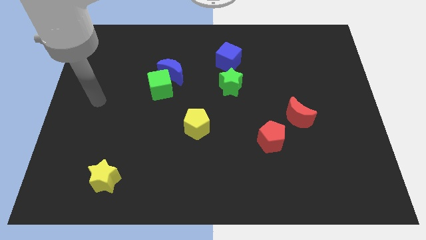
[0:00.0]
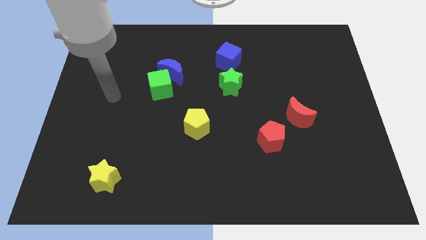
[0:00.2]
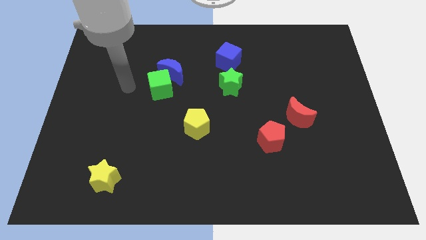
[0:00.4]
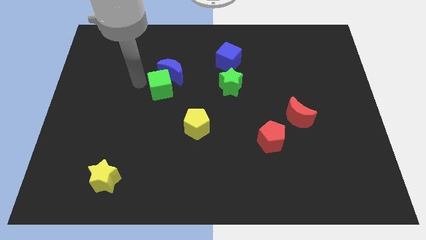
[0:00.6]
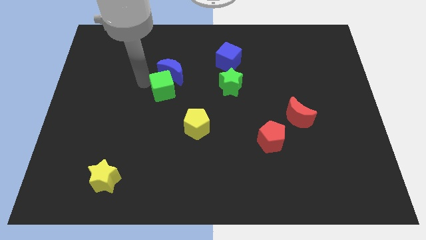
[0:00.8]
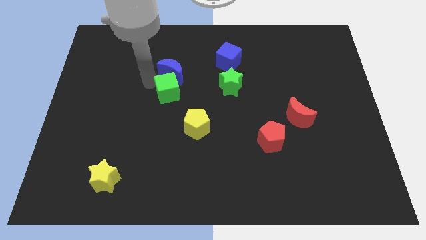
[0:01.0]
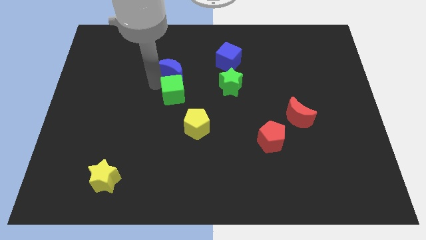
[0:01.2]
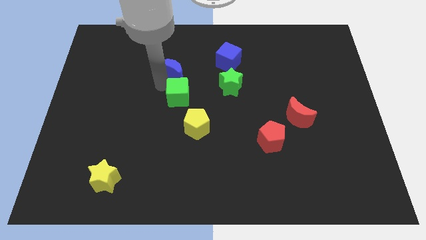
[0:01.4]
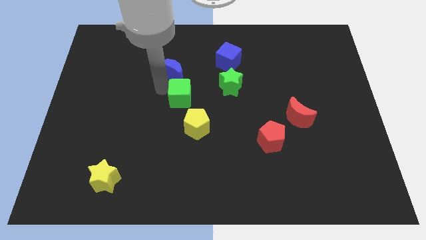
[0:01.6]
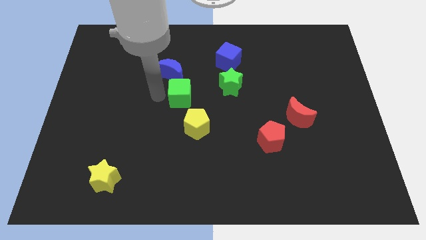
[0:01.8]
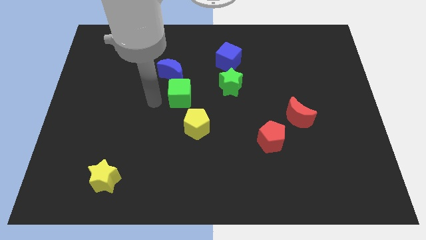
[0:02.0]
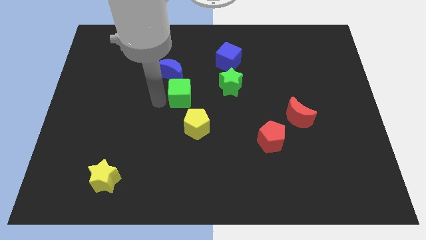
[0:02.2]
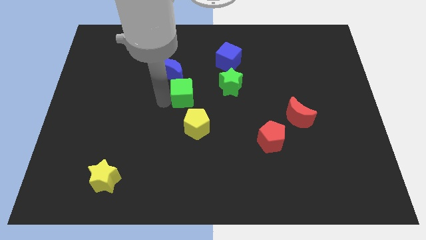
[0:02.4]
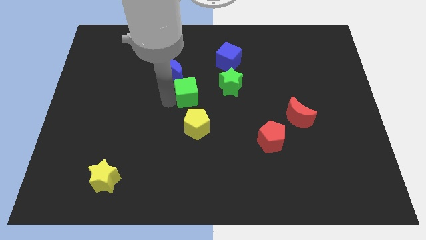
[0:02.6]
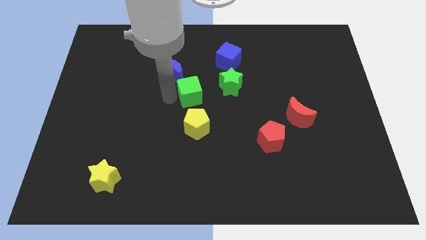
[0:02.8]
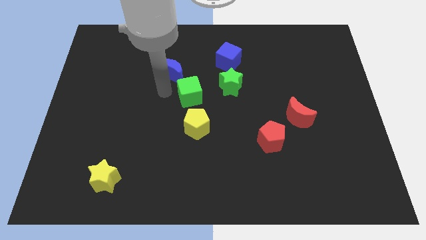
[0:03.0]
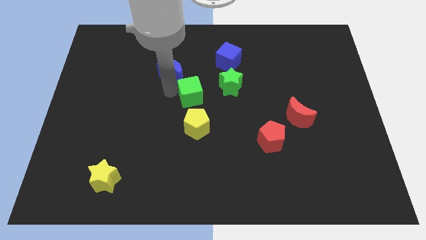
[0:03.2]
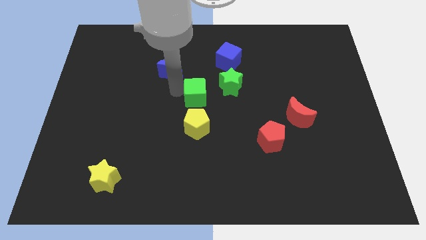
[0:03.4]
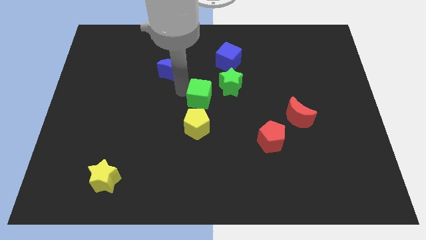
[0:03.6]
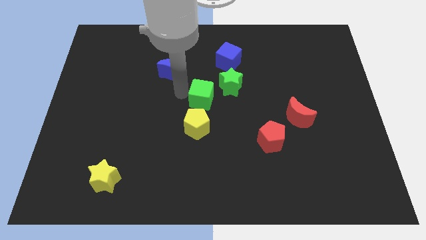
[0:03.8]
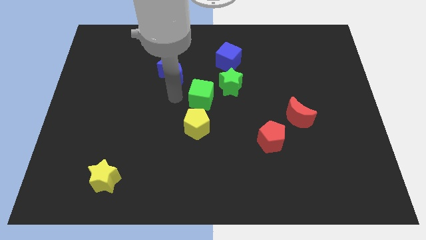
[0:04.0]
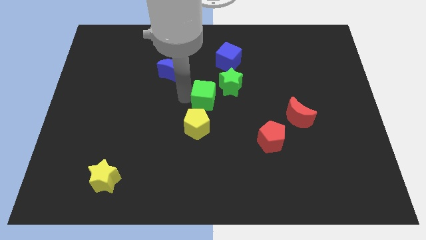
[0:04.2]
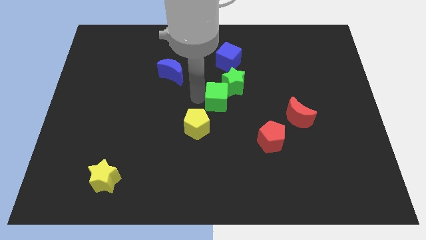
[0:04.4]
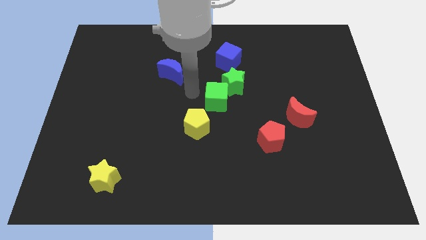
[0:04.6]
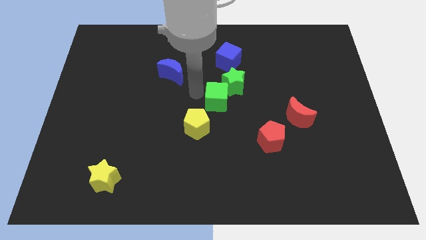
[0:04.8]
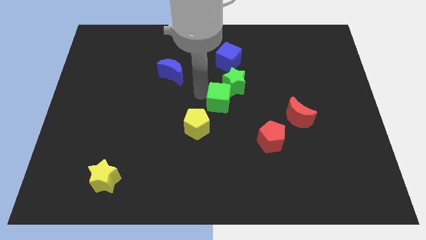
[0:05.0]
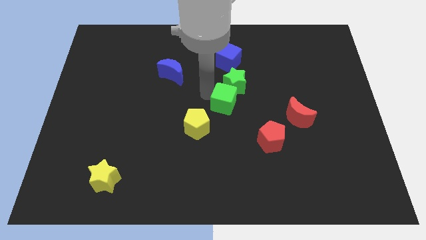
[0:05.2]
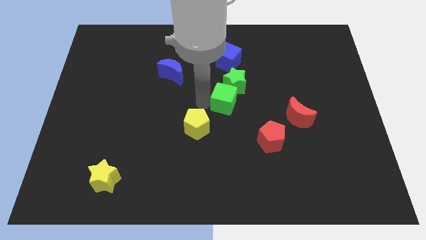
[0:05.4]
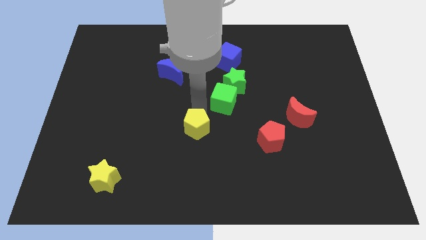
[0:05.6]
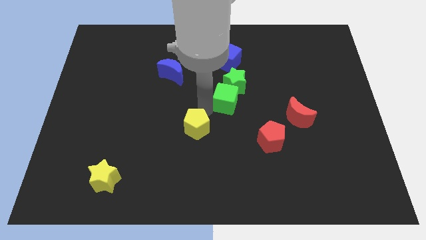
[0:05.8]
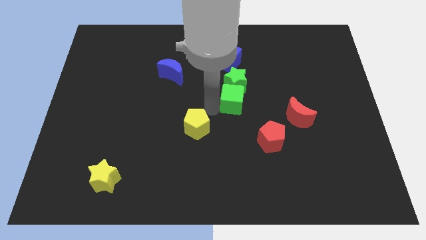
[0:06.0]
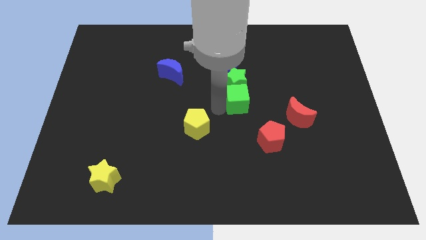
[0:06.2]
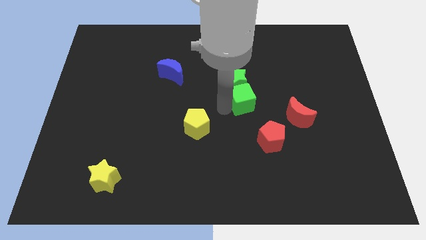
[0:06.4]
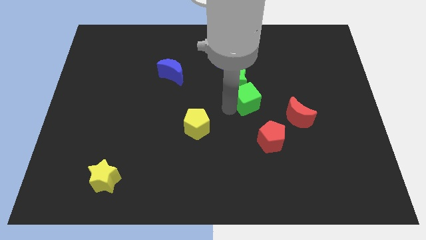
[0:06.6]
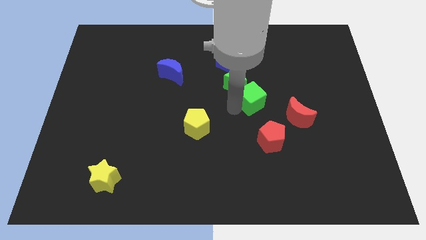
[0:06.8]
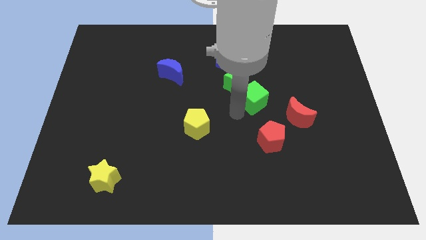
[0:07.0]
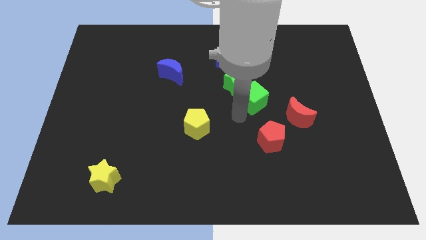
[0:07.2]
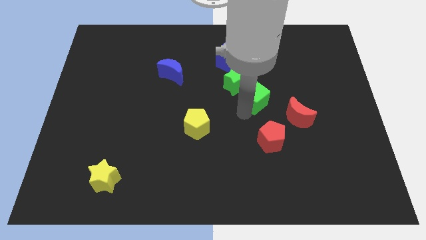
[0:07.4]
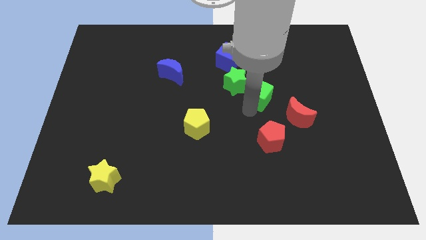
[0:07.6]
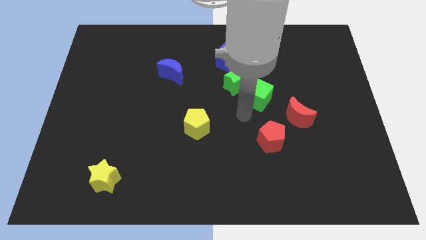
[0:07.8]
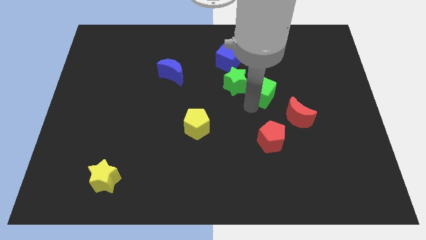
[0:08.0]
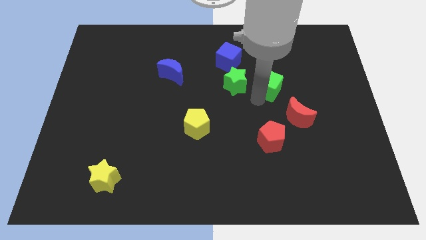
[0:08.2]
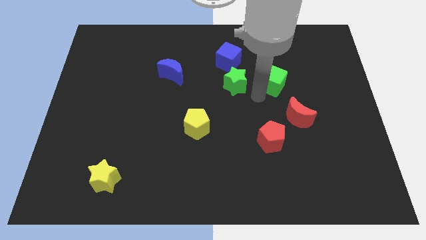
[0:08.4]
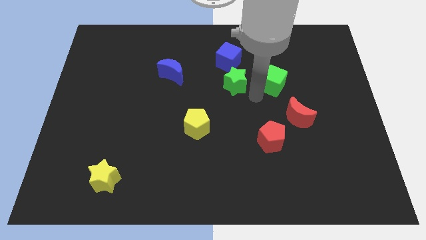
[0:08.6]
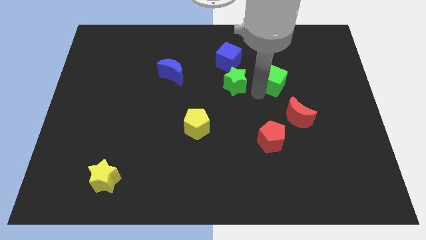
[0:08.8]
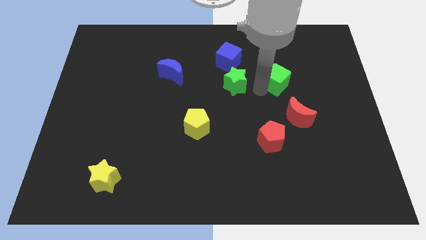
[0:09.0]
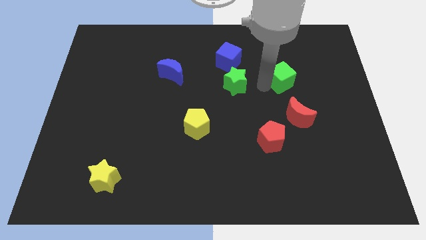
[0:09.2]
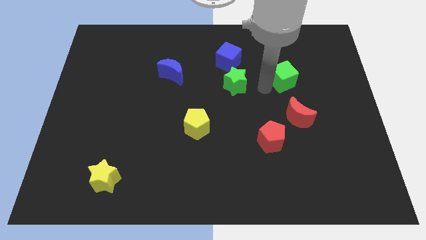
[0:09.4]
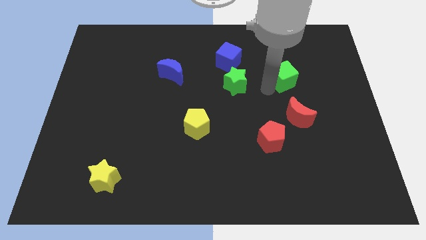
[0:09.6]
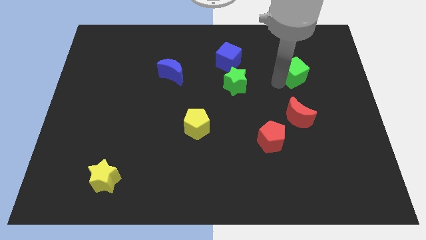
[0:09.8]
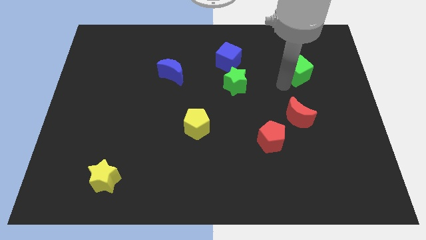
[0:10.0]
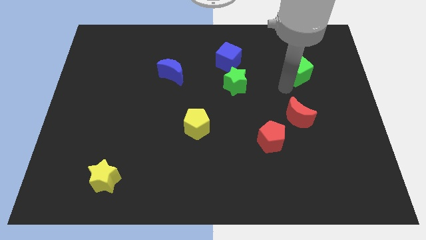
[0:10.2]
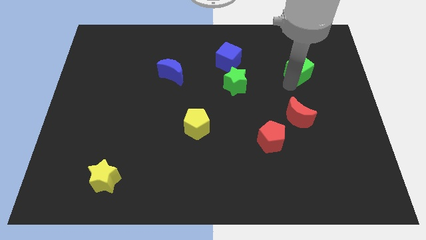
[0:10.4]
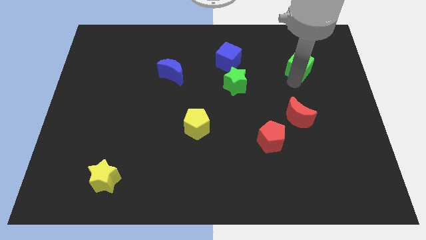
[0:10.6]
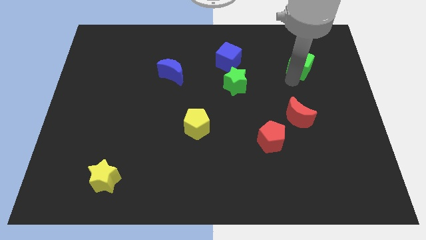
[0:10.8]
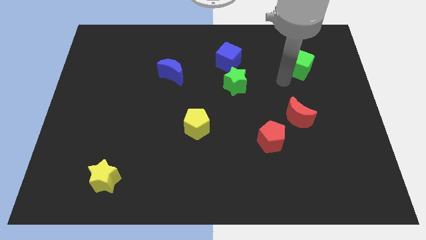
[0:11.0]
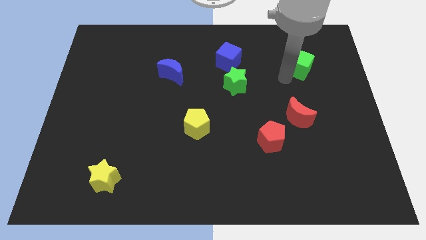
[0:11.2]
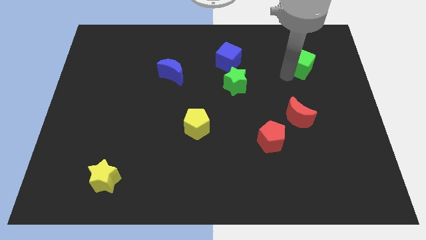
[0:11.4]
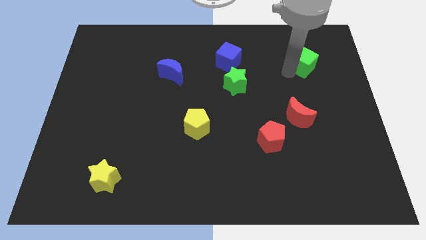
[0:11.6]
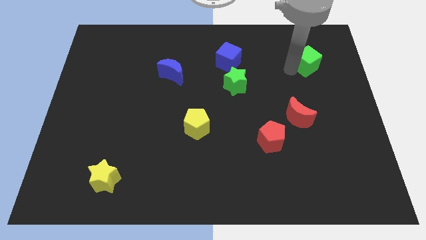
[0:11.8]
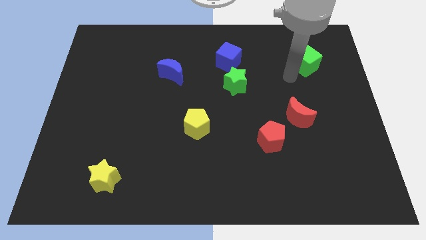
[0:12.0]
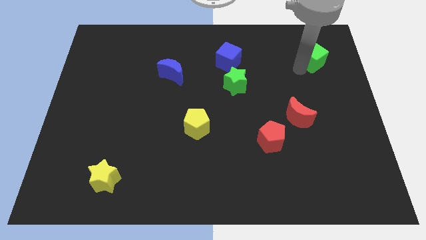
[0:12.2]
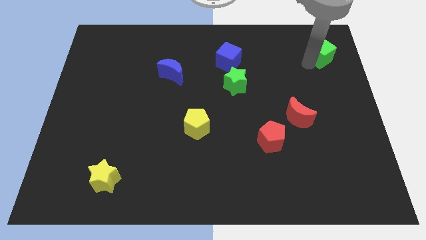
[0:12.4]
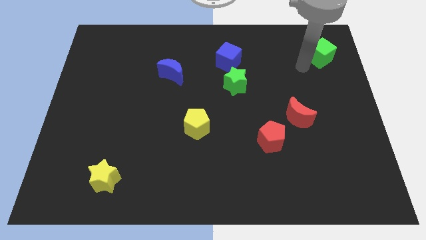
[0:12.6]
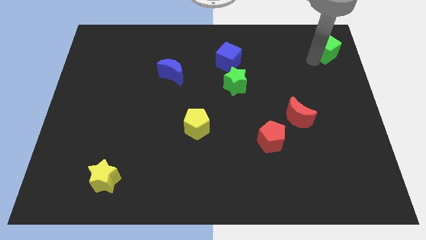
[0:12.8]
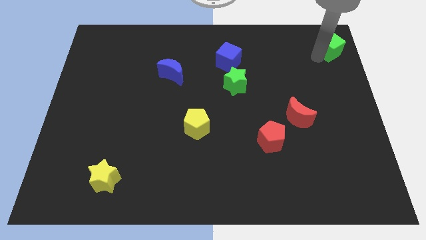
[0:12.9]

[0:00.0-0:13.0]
put the green cube to the top right

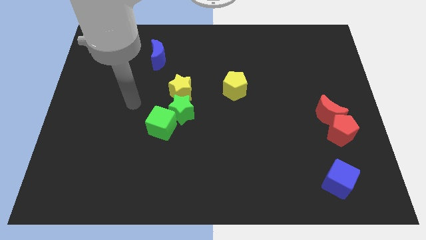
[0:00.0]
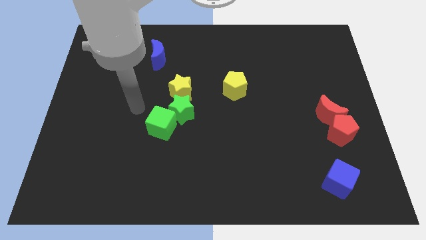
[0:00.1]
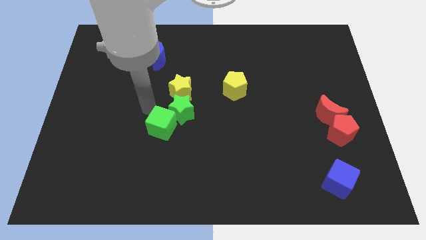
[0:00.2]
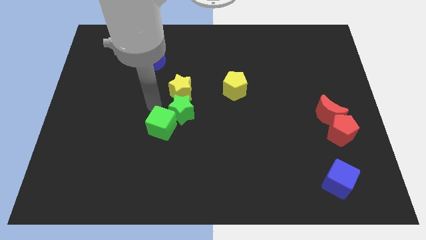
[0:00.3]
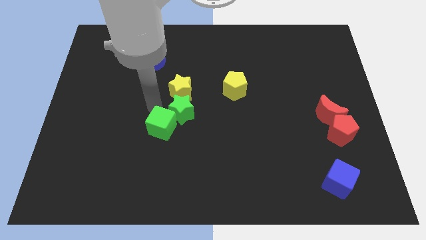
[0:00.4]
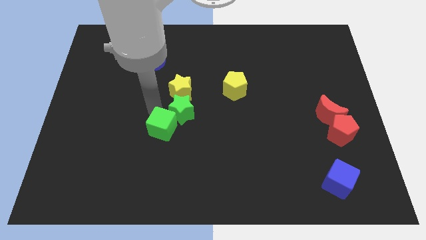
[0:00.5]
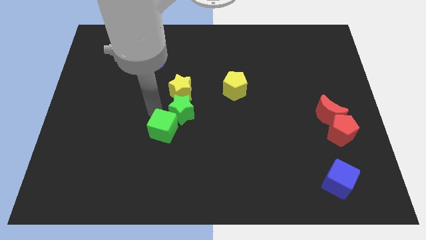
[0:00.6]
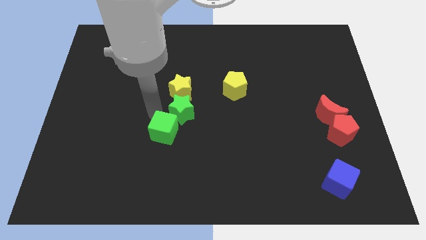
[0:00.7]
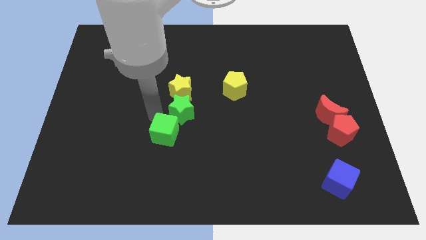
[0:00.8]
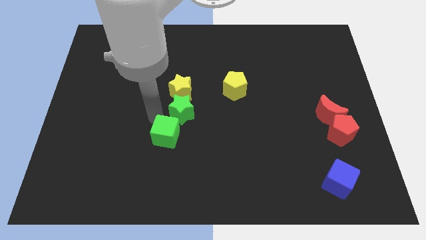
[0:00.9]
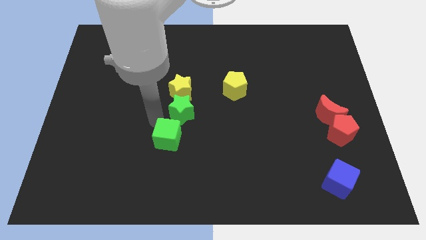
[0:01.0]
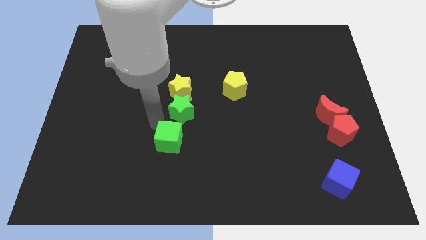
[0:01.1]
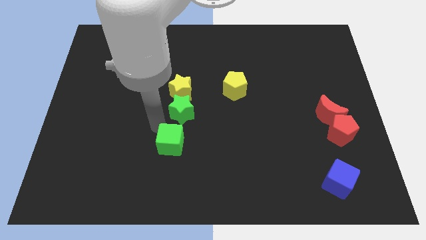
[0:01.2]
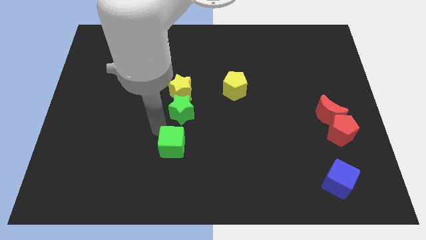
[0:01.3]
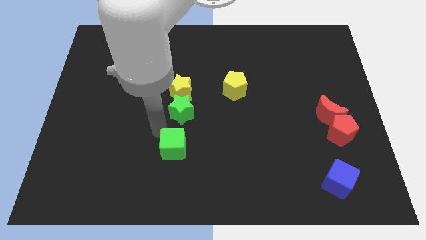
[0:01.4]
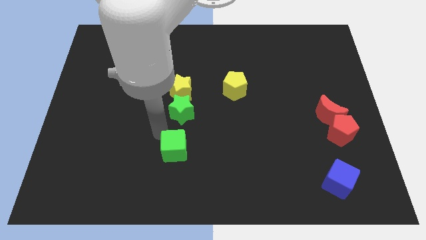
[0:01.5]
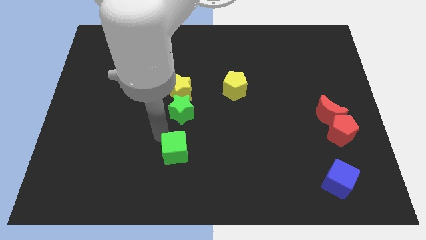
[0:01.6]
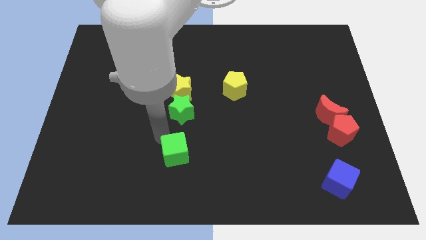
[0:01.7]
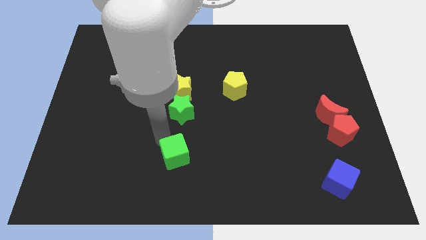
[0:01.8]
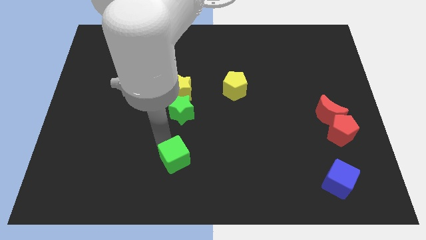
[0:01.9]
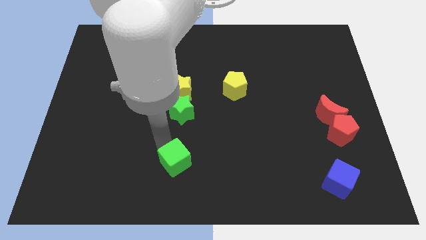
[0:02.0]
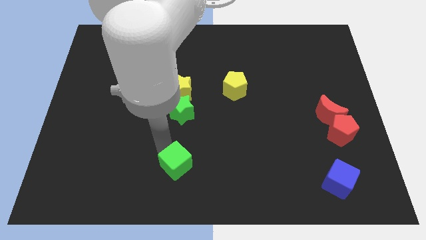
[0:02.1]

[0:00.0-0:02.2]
move the green cube to the bottom
